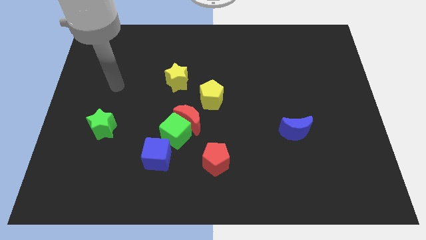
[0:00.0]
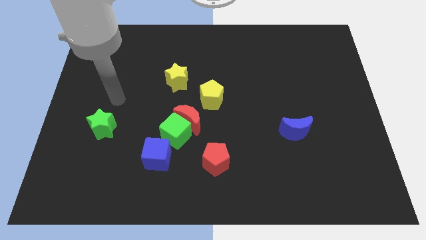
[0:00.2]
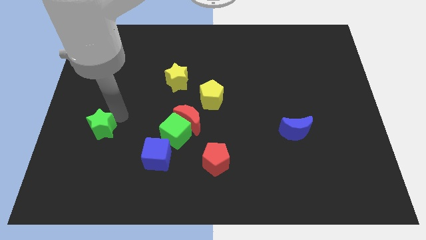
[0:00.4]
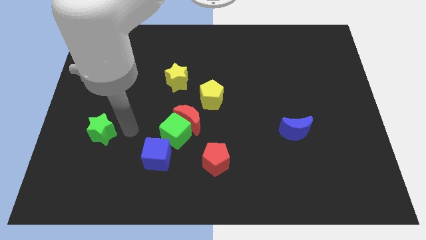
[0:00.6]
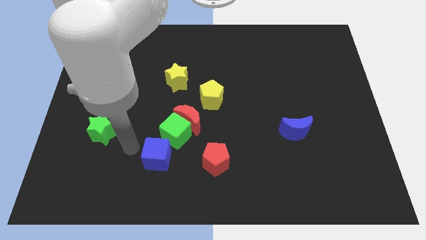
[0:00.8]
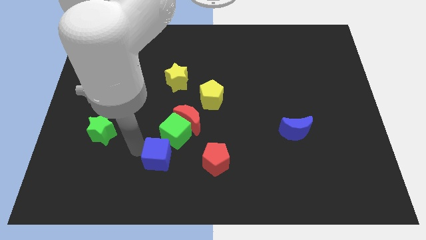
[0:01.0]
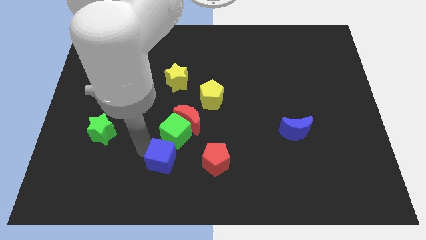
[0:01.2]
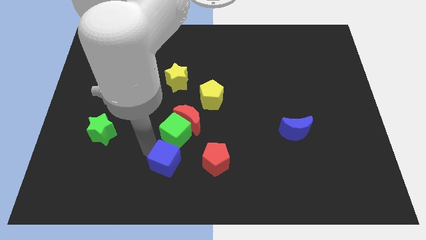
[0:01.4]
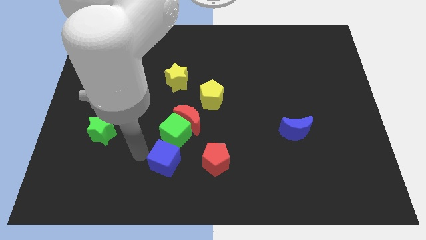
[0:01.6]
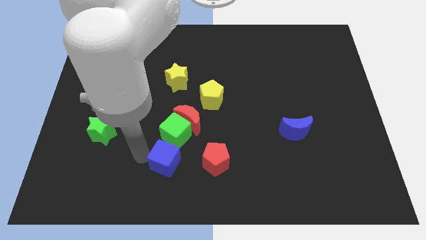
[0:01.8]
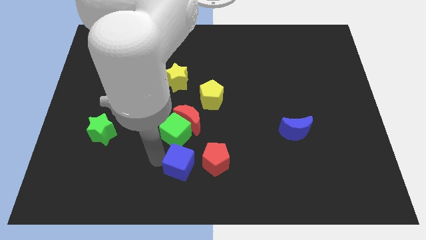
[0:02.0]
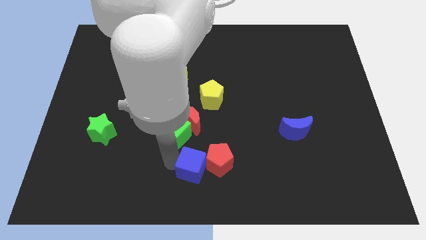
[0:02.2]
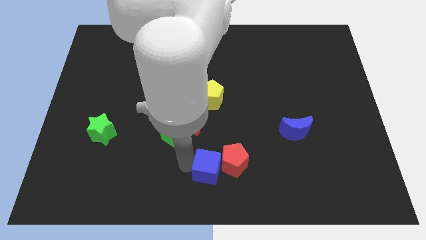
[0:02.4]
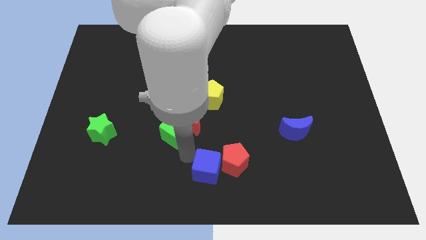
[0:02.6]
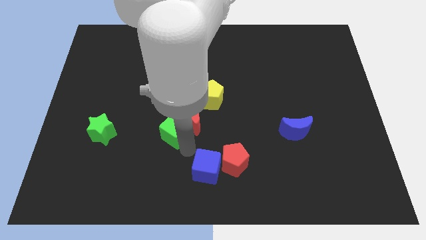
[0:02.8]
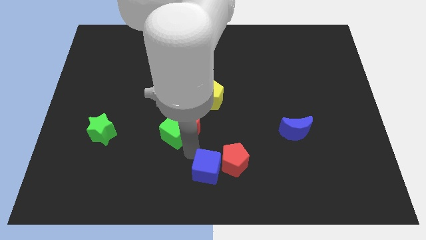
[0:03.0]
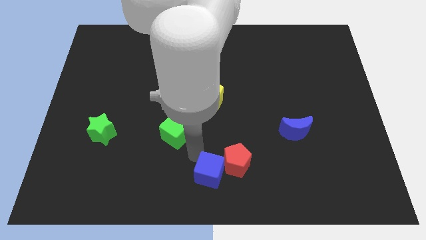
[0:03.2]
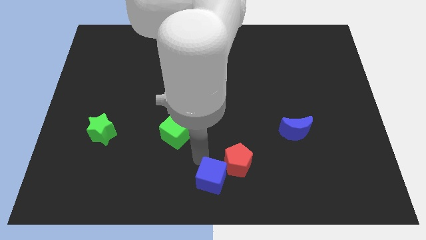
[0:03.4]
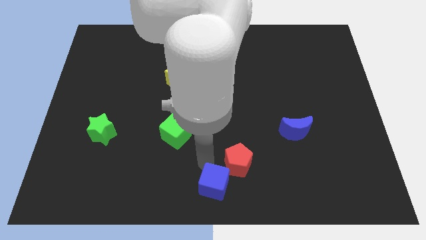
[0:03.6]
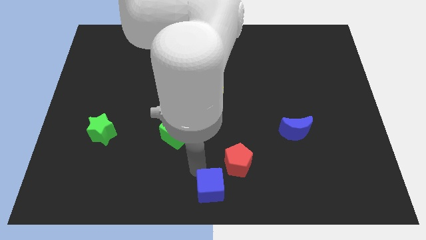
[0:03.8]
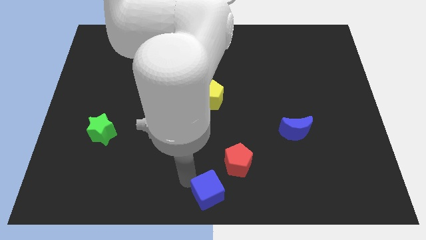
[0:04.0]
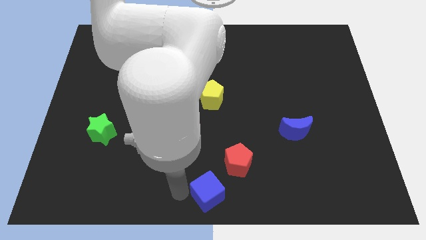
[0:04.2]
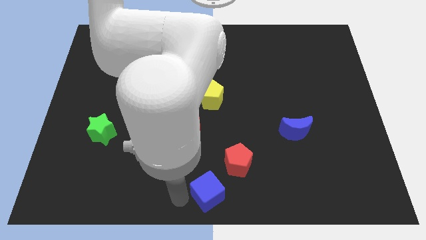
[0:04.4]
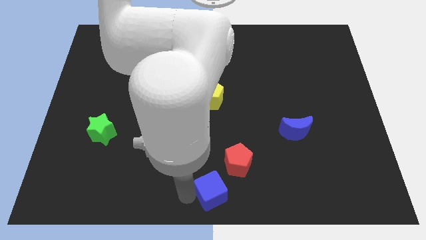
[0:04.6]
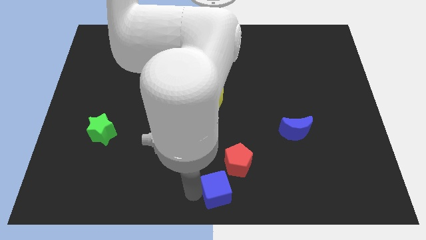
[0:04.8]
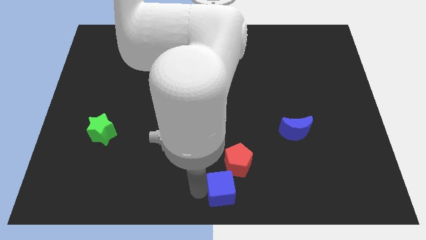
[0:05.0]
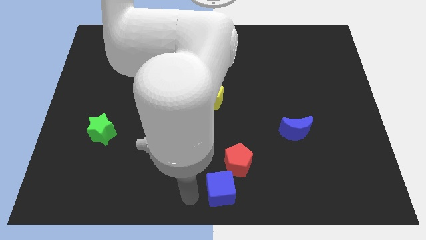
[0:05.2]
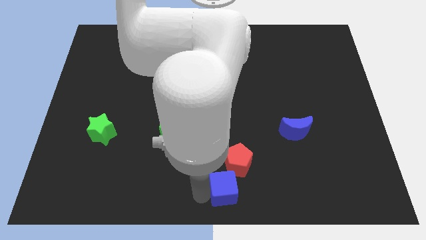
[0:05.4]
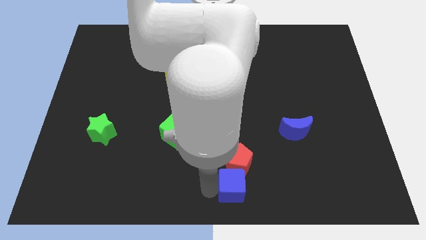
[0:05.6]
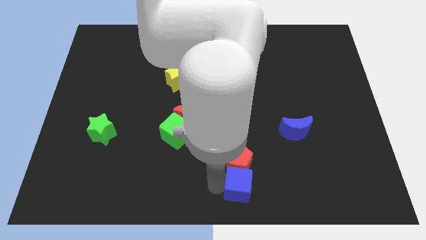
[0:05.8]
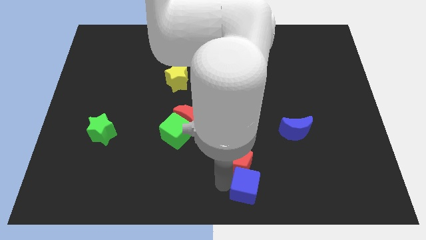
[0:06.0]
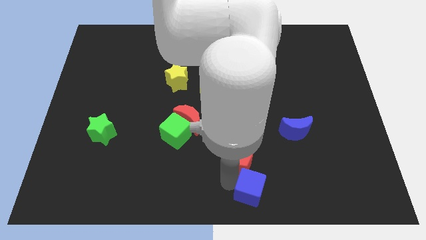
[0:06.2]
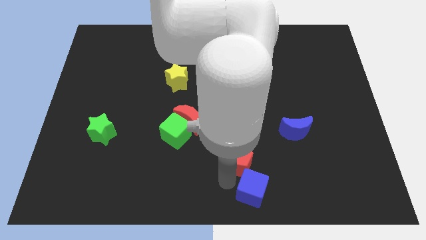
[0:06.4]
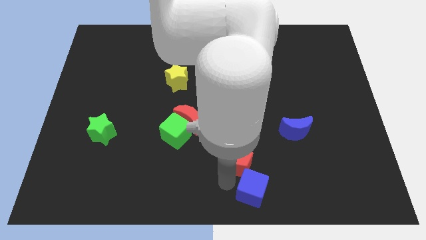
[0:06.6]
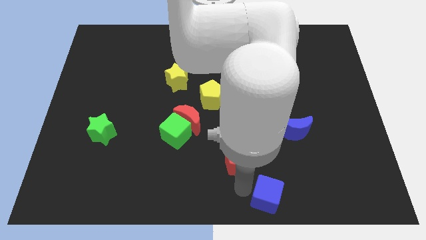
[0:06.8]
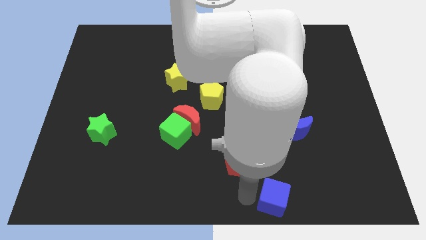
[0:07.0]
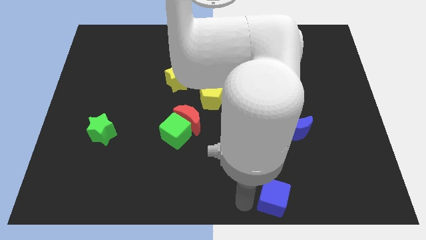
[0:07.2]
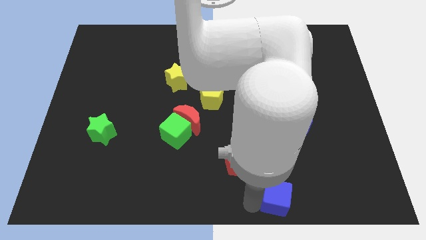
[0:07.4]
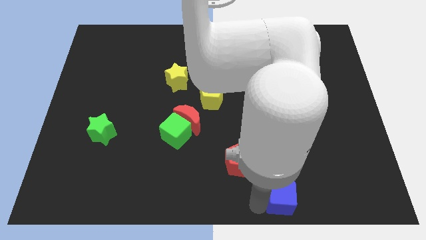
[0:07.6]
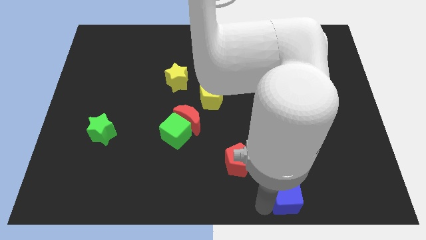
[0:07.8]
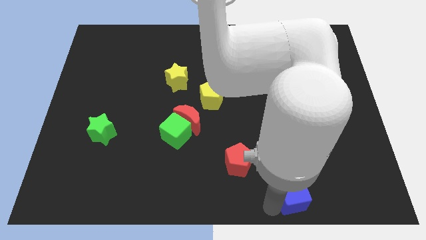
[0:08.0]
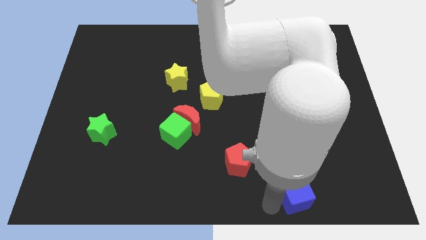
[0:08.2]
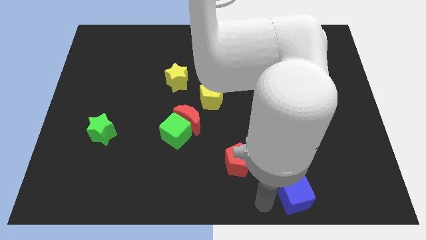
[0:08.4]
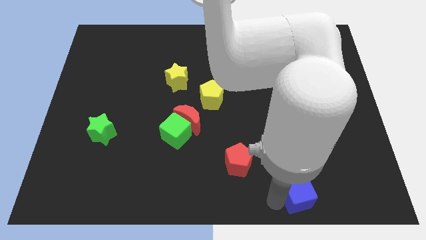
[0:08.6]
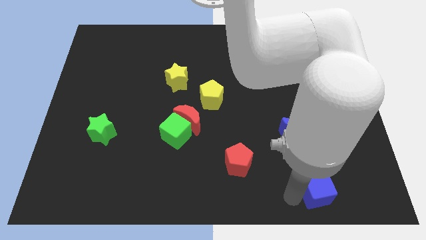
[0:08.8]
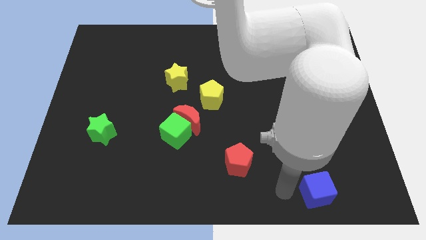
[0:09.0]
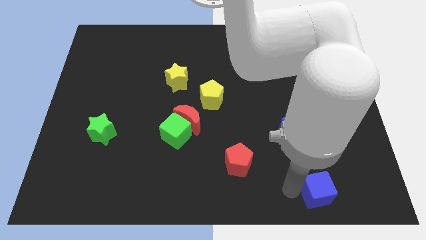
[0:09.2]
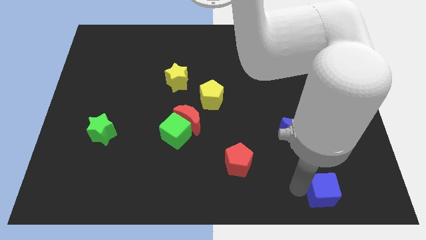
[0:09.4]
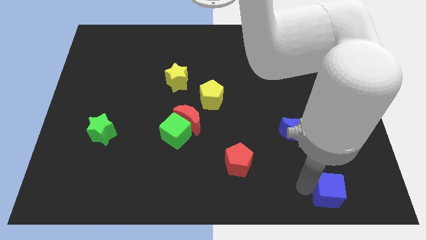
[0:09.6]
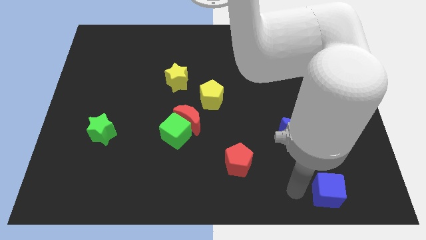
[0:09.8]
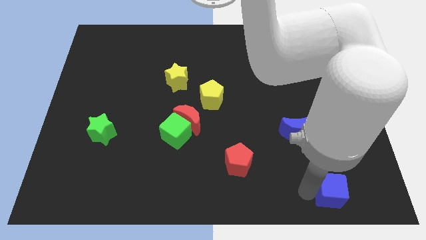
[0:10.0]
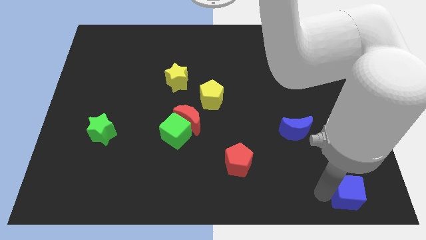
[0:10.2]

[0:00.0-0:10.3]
push the blue cube to the bottom right

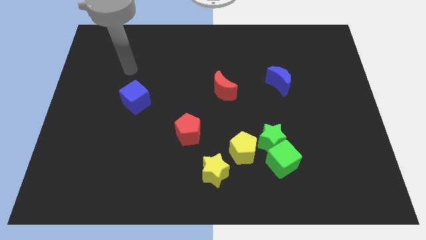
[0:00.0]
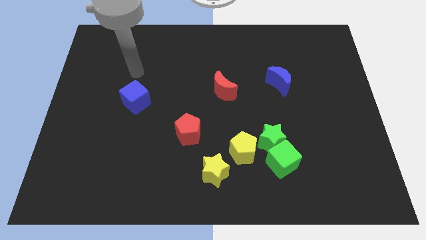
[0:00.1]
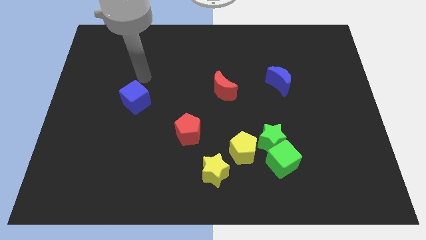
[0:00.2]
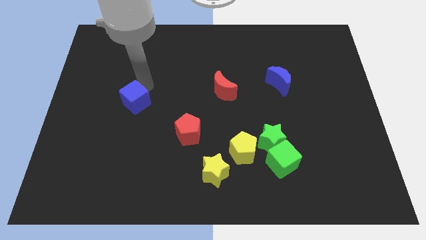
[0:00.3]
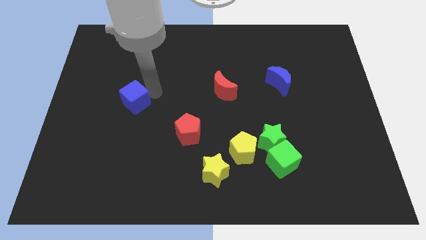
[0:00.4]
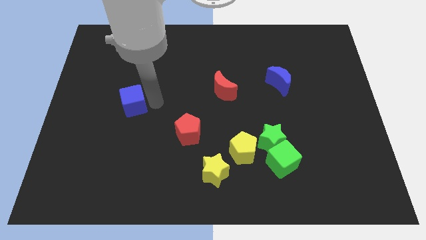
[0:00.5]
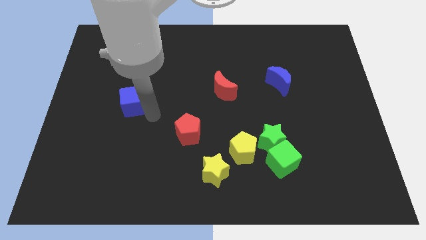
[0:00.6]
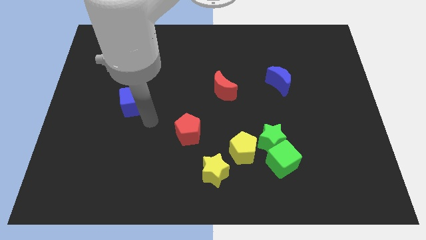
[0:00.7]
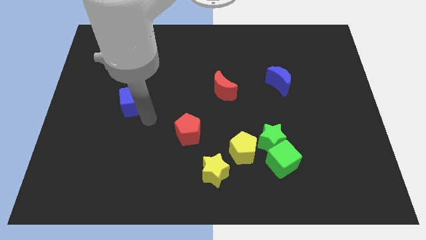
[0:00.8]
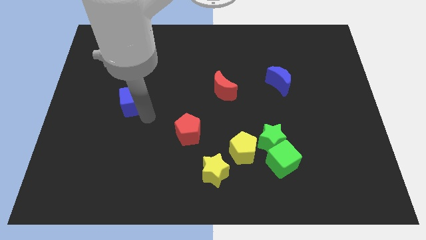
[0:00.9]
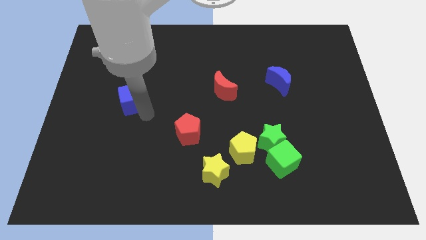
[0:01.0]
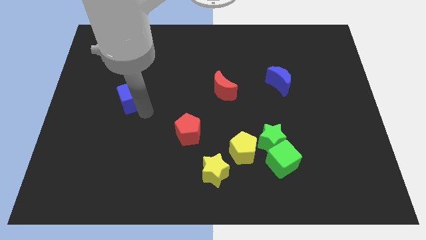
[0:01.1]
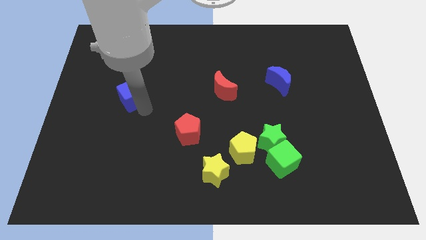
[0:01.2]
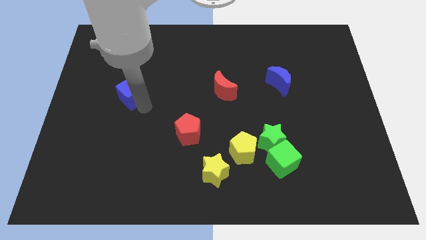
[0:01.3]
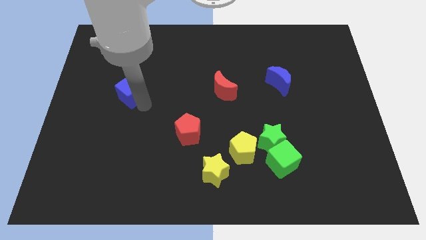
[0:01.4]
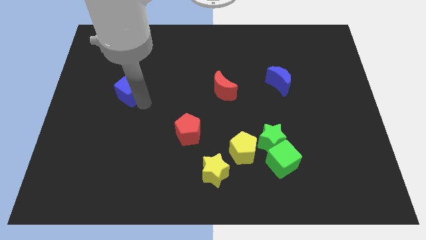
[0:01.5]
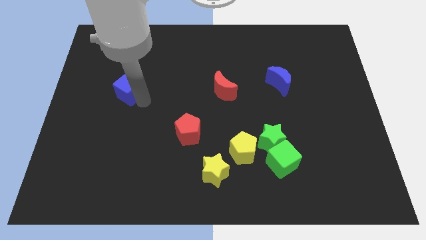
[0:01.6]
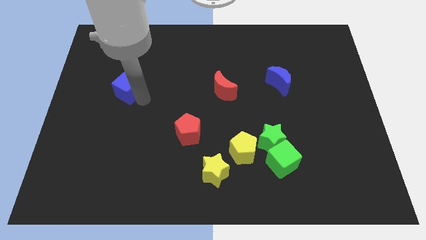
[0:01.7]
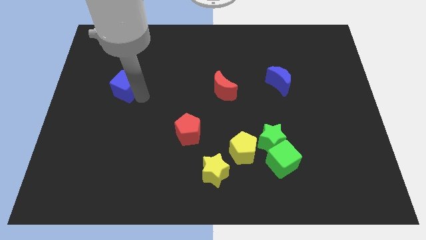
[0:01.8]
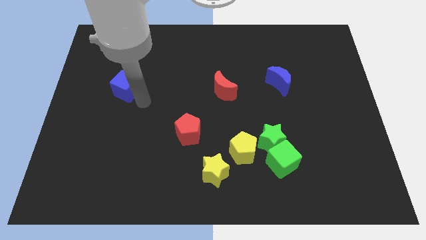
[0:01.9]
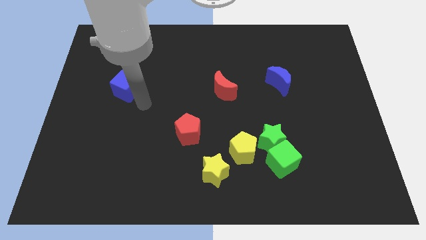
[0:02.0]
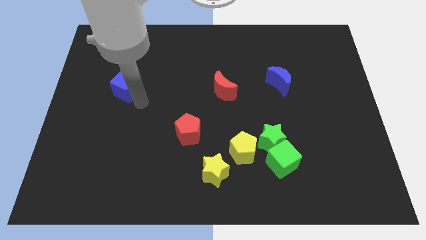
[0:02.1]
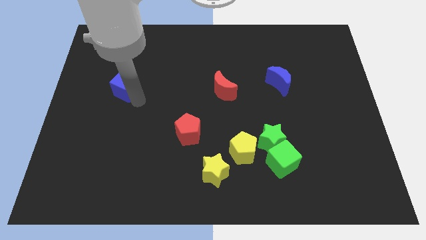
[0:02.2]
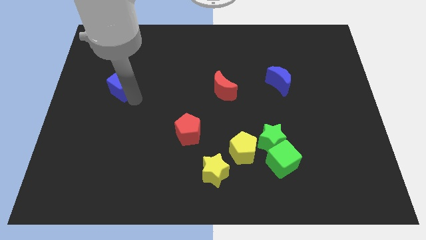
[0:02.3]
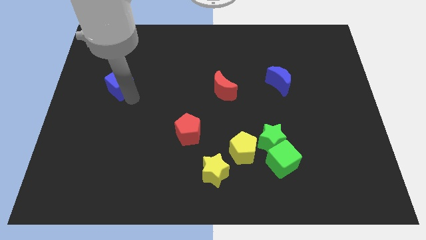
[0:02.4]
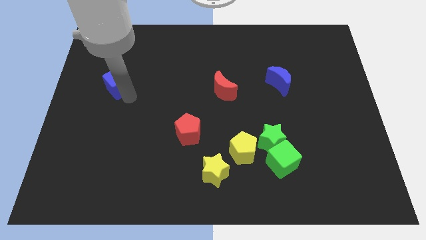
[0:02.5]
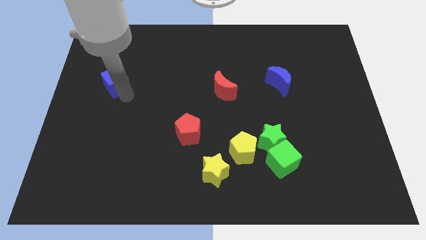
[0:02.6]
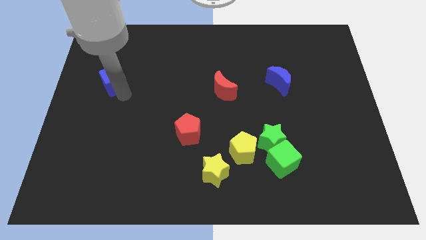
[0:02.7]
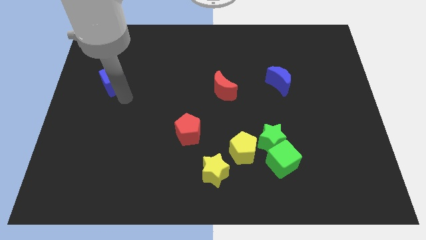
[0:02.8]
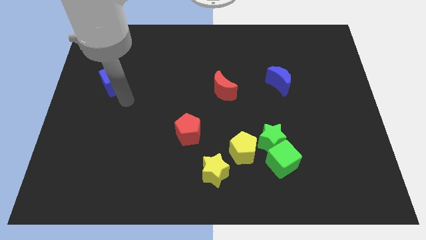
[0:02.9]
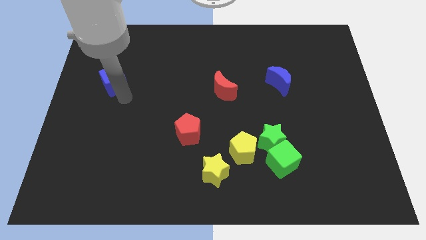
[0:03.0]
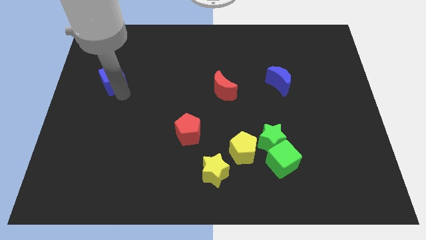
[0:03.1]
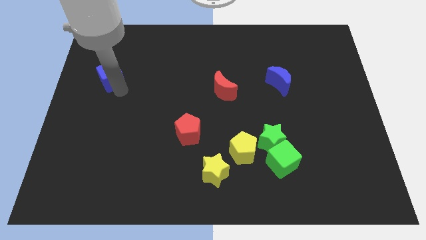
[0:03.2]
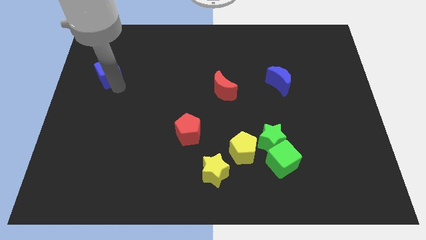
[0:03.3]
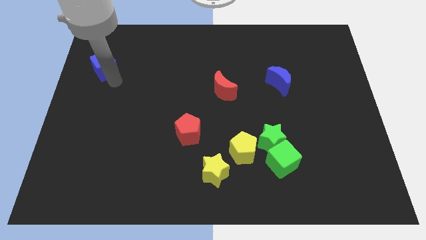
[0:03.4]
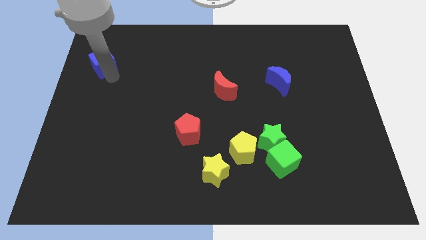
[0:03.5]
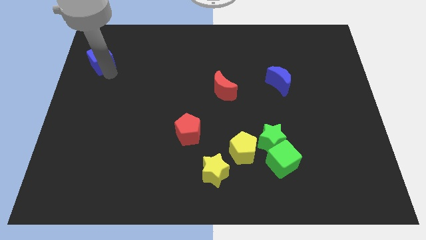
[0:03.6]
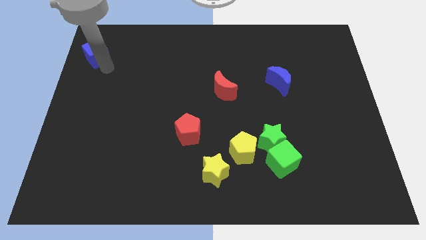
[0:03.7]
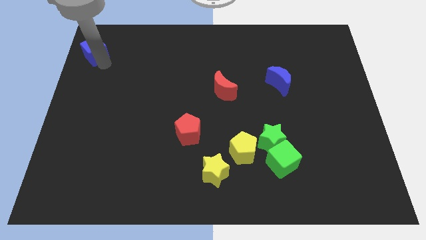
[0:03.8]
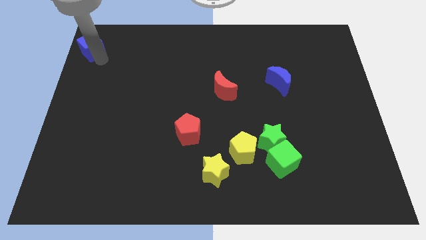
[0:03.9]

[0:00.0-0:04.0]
move the blue cube to the upper left corner
